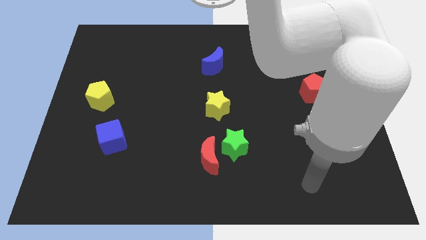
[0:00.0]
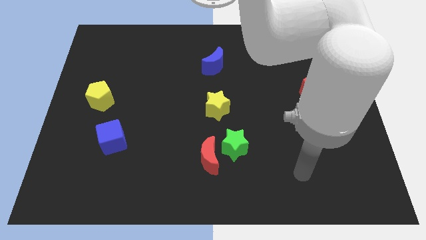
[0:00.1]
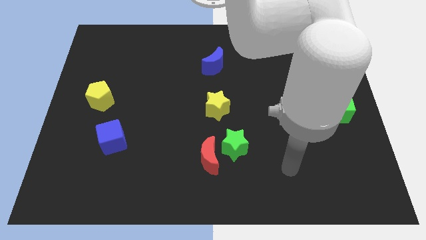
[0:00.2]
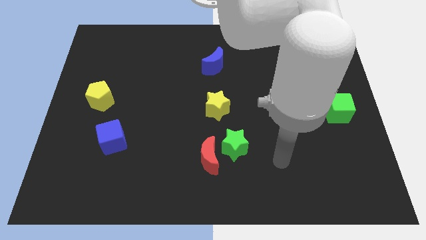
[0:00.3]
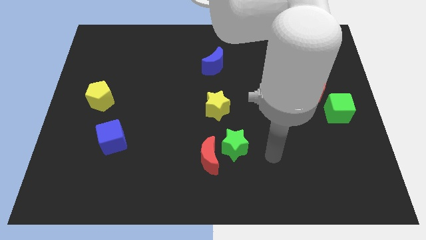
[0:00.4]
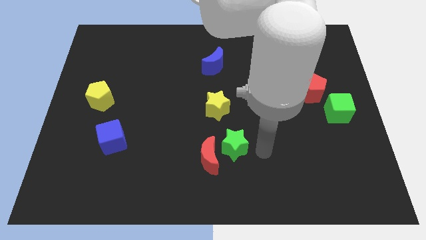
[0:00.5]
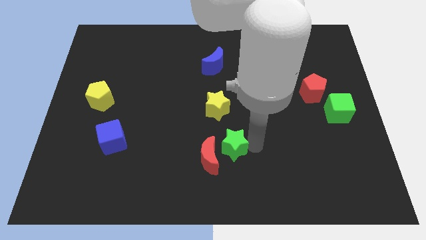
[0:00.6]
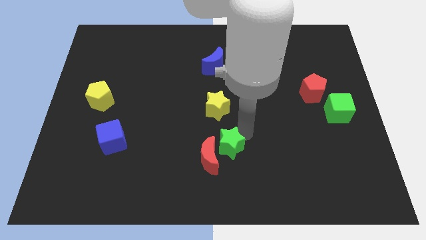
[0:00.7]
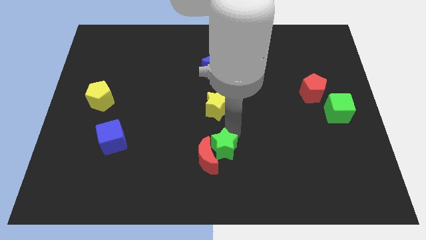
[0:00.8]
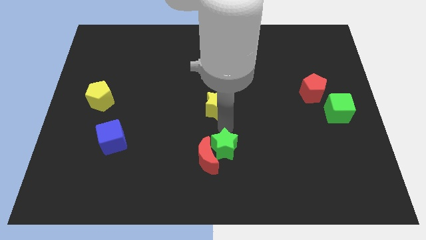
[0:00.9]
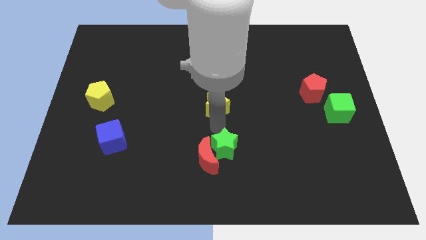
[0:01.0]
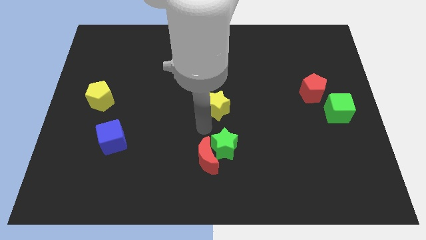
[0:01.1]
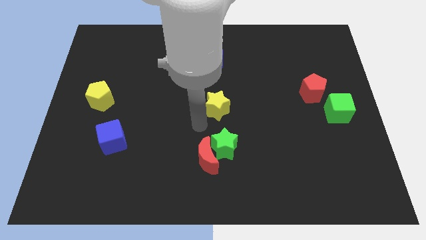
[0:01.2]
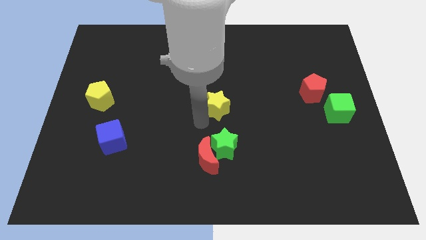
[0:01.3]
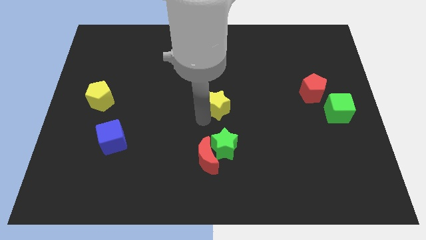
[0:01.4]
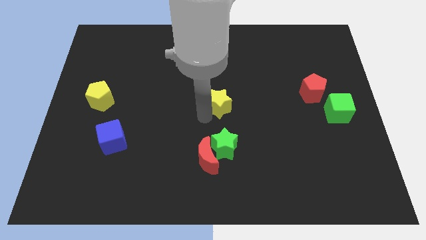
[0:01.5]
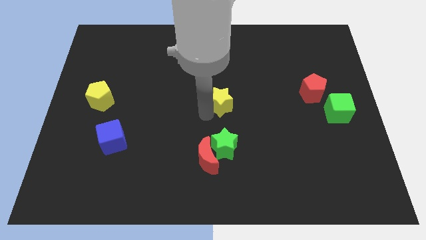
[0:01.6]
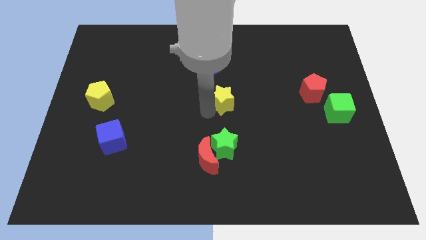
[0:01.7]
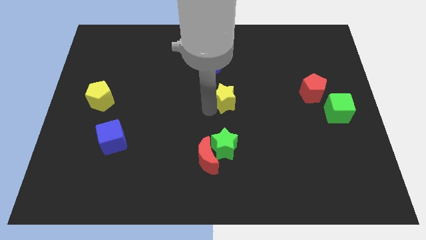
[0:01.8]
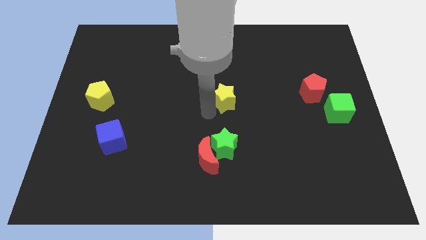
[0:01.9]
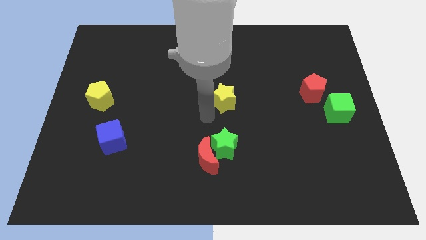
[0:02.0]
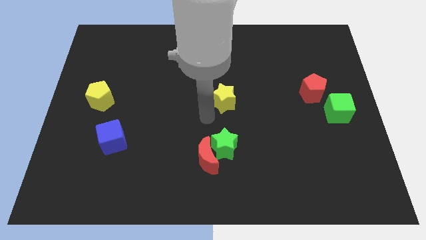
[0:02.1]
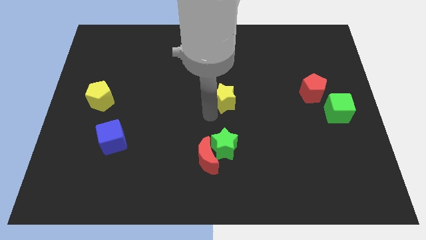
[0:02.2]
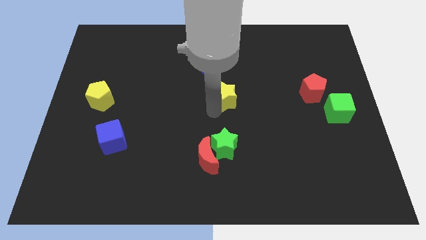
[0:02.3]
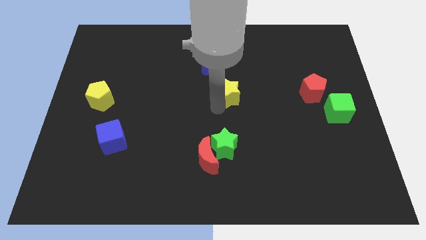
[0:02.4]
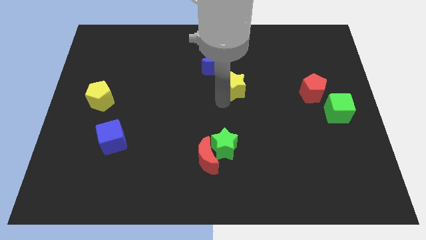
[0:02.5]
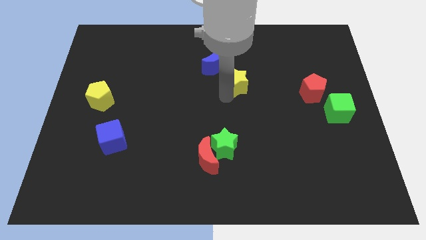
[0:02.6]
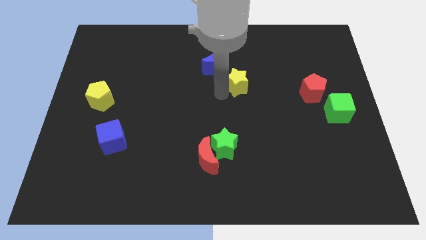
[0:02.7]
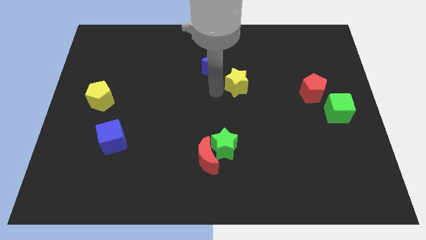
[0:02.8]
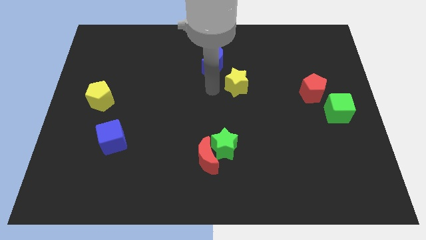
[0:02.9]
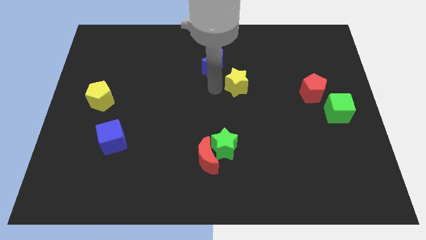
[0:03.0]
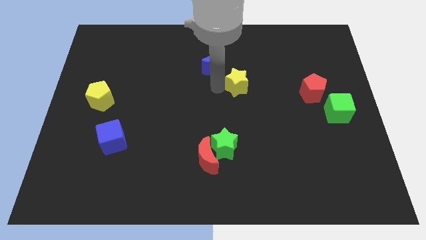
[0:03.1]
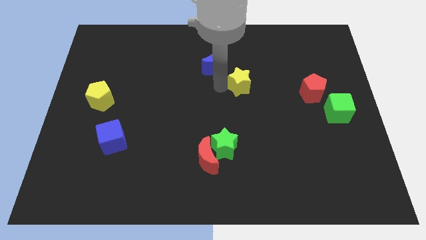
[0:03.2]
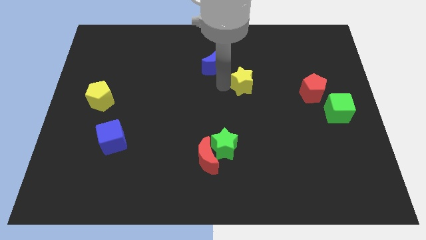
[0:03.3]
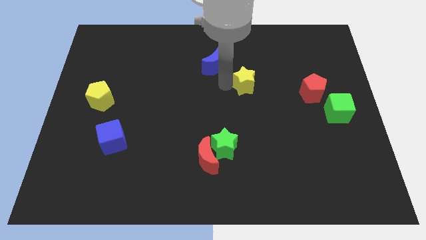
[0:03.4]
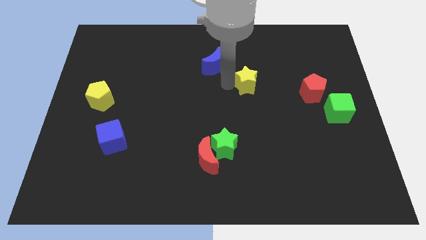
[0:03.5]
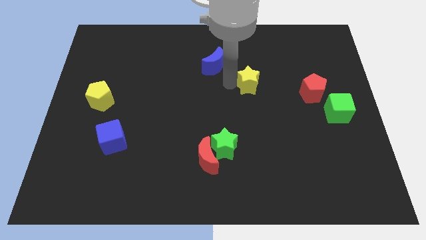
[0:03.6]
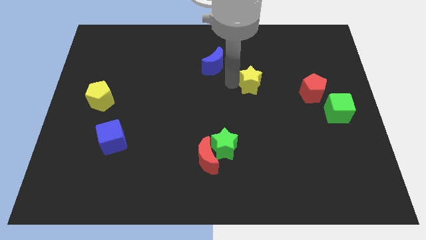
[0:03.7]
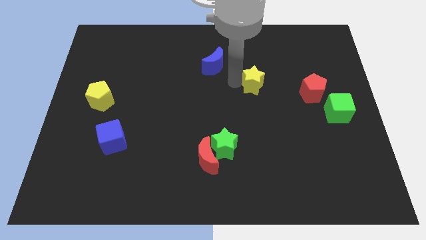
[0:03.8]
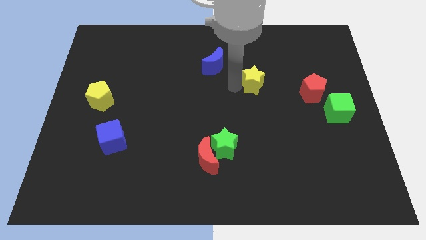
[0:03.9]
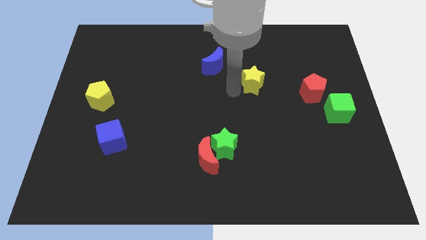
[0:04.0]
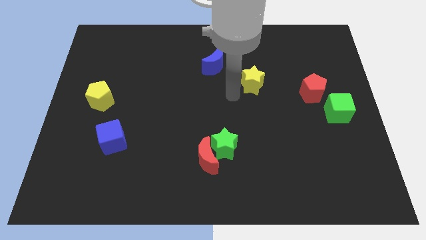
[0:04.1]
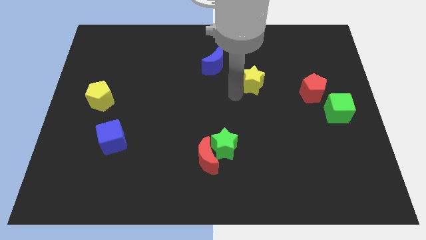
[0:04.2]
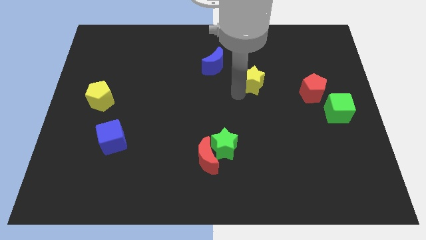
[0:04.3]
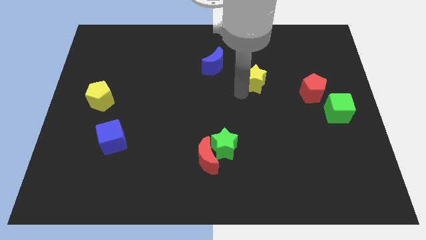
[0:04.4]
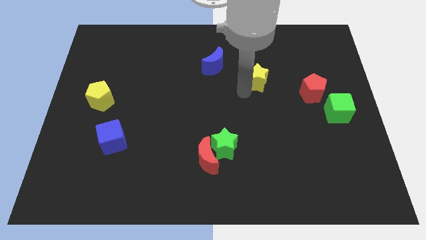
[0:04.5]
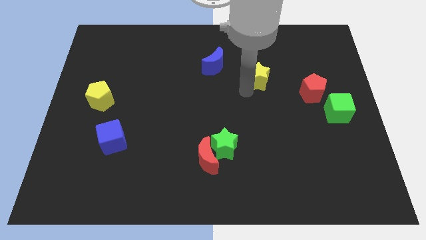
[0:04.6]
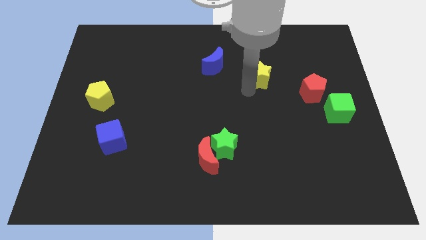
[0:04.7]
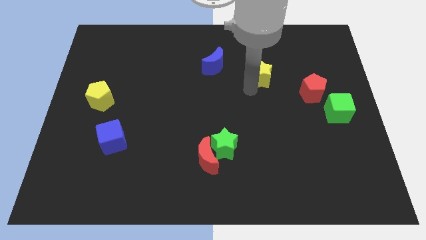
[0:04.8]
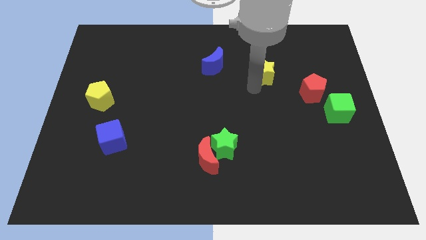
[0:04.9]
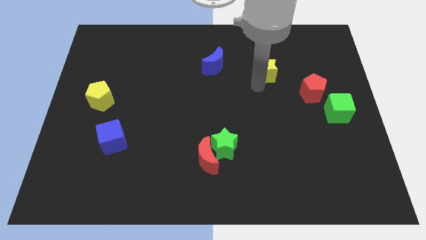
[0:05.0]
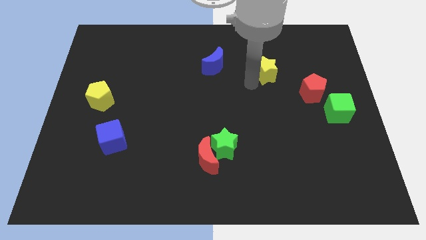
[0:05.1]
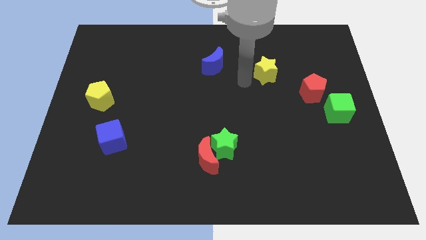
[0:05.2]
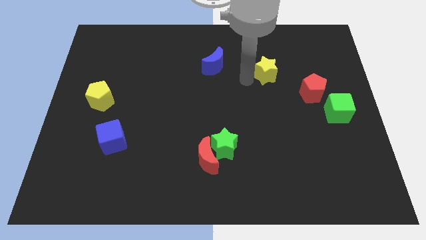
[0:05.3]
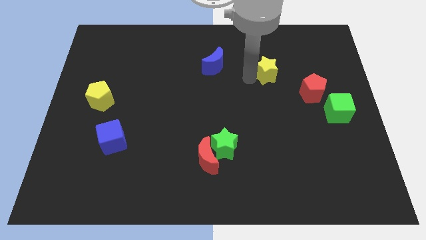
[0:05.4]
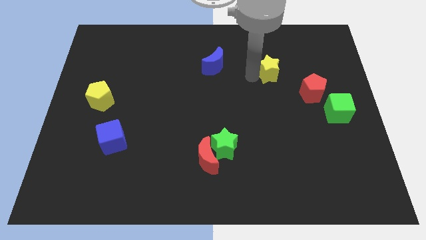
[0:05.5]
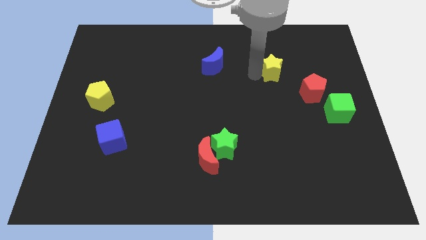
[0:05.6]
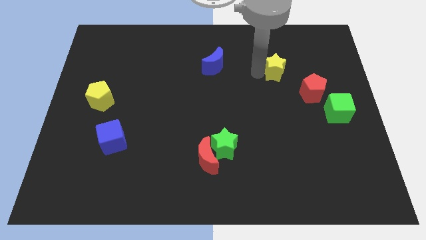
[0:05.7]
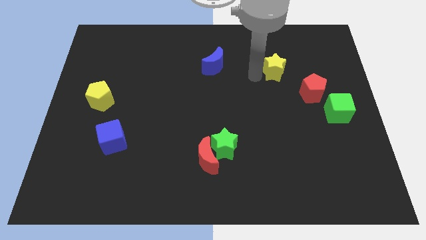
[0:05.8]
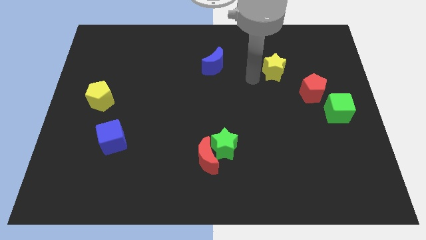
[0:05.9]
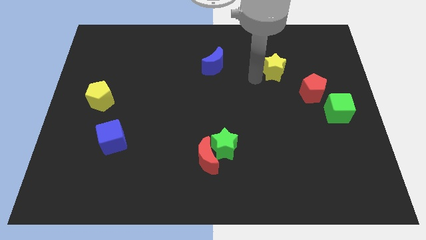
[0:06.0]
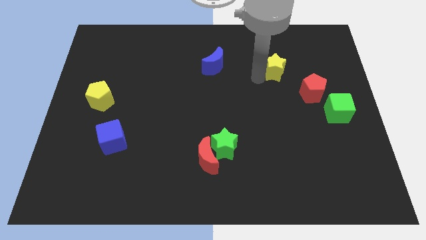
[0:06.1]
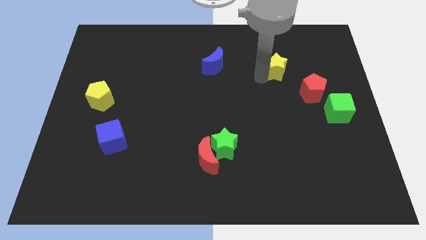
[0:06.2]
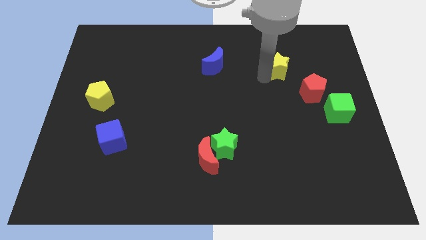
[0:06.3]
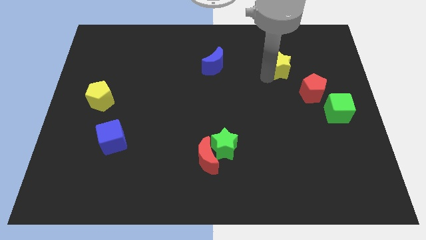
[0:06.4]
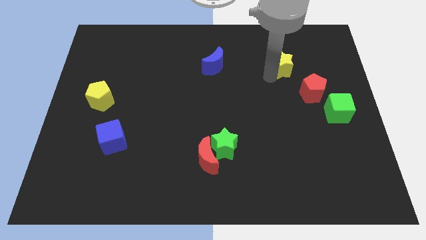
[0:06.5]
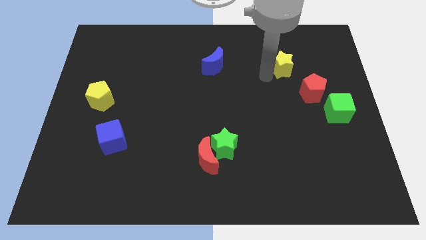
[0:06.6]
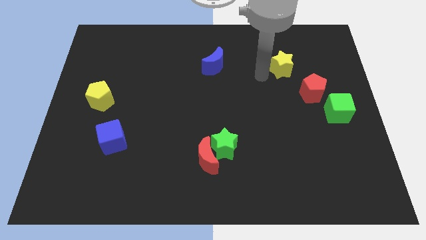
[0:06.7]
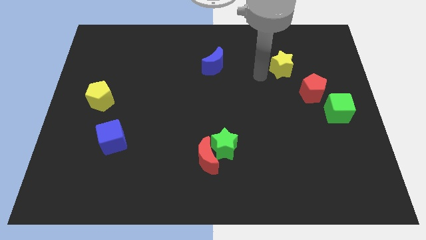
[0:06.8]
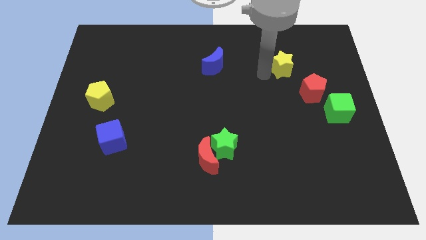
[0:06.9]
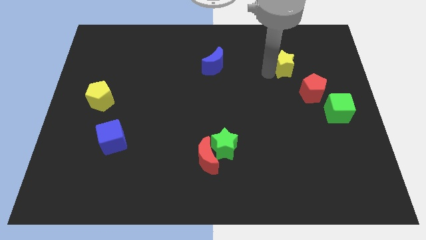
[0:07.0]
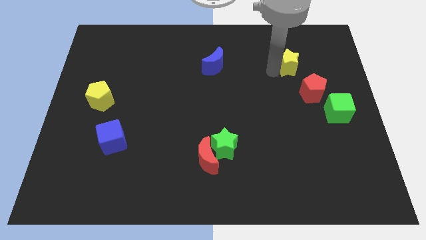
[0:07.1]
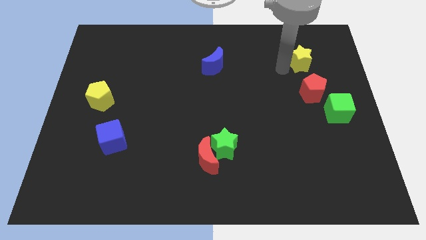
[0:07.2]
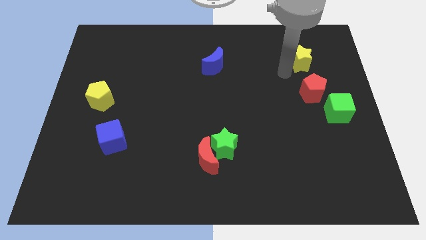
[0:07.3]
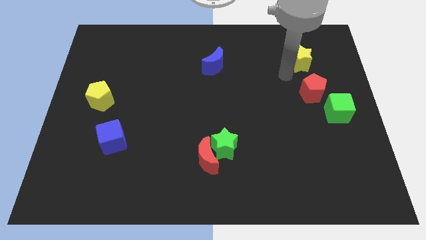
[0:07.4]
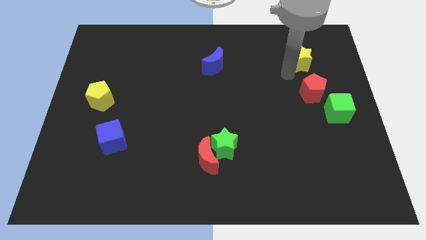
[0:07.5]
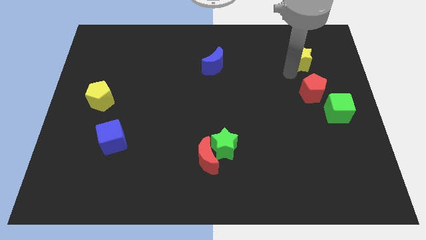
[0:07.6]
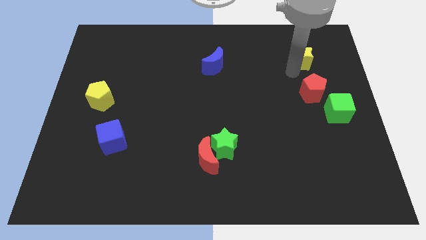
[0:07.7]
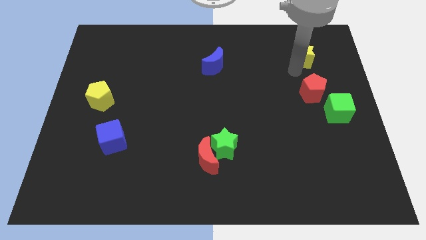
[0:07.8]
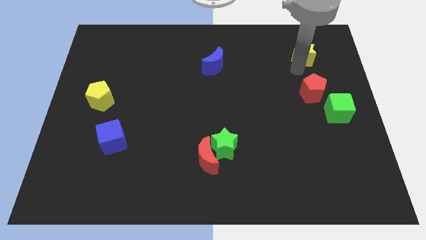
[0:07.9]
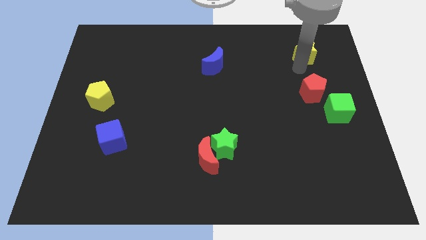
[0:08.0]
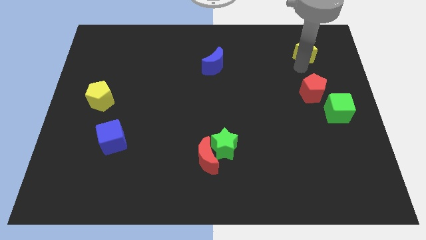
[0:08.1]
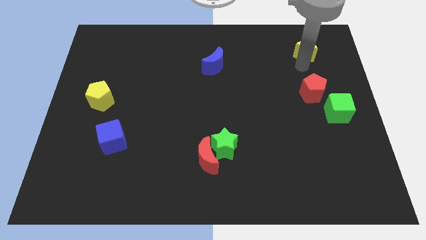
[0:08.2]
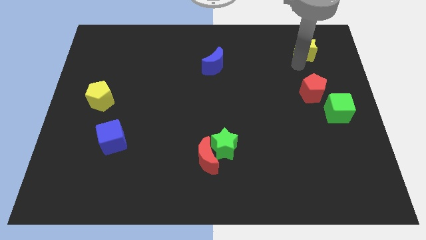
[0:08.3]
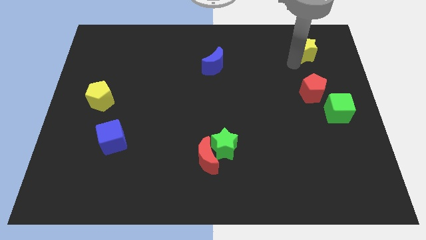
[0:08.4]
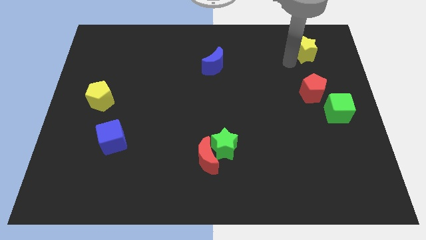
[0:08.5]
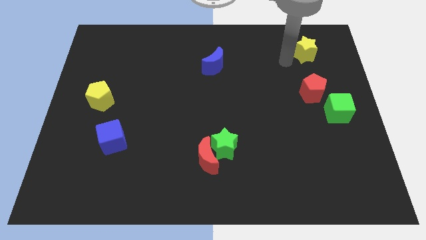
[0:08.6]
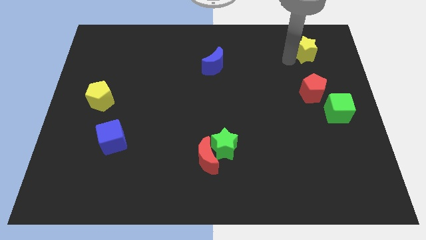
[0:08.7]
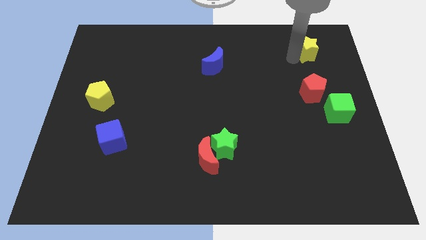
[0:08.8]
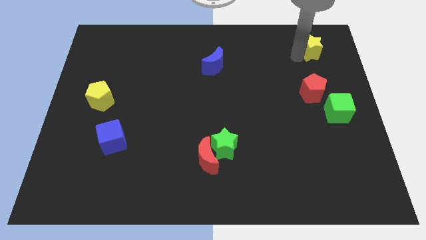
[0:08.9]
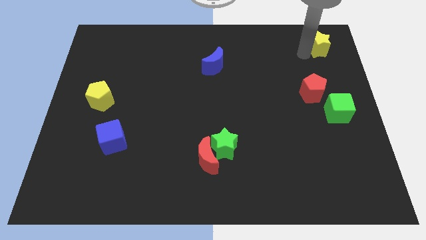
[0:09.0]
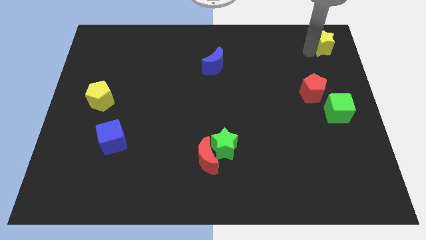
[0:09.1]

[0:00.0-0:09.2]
put the yellow star to the top right corner
